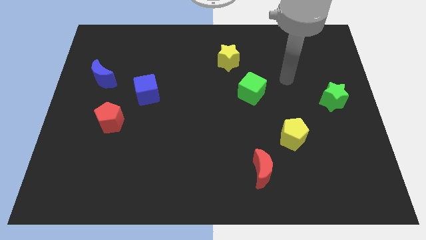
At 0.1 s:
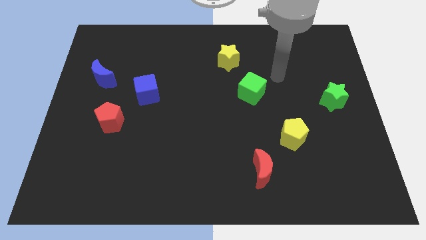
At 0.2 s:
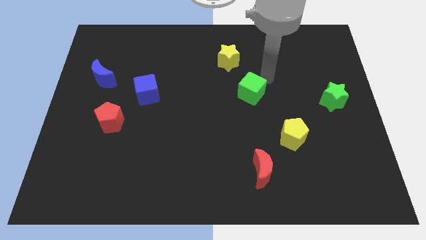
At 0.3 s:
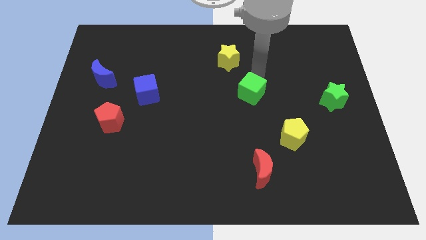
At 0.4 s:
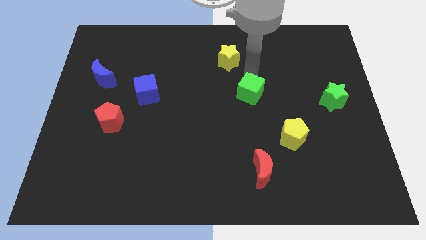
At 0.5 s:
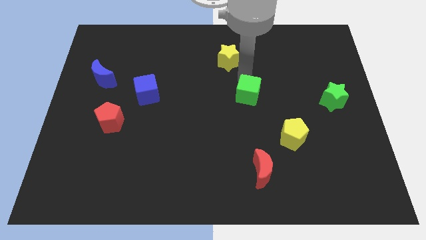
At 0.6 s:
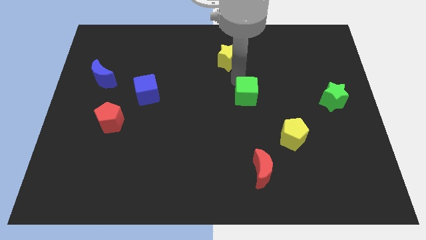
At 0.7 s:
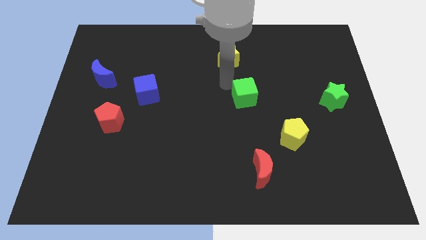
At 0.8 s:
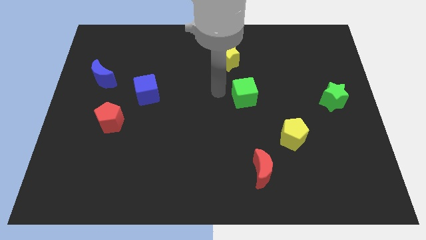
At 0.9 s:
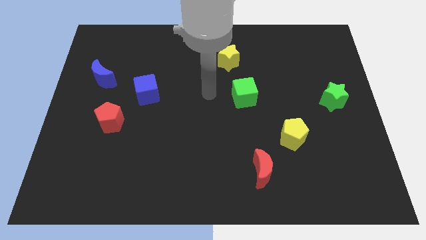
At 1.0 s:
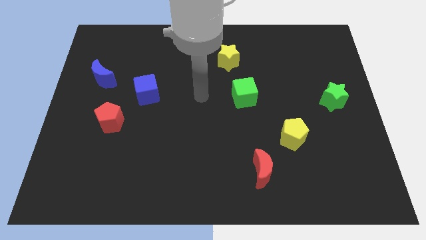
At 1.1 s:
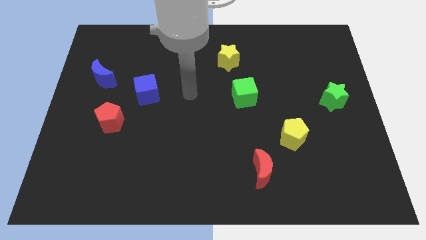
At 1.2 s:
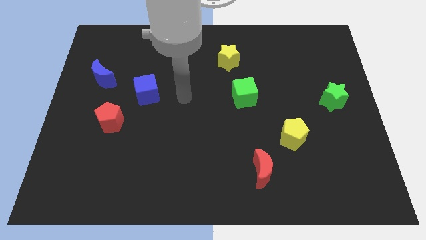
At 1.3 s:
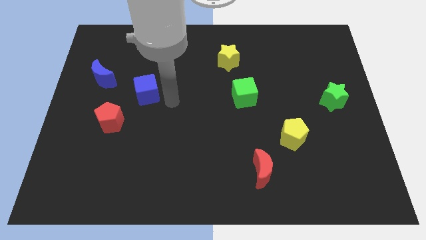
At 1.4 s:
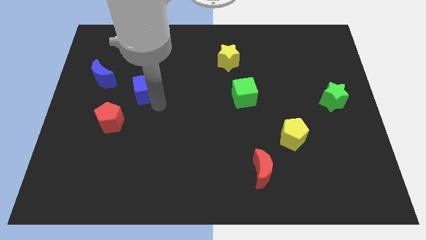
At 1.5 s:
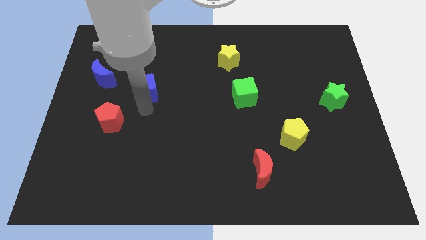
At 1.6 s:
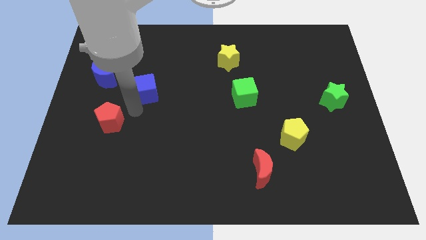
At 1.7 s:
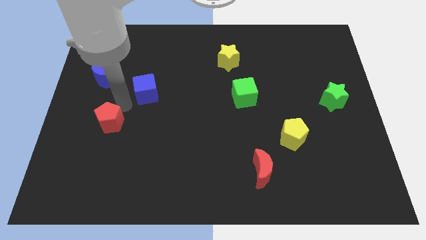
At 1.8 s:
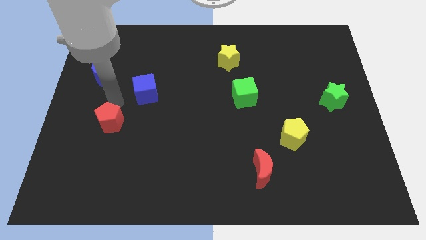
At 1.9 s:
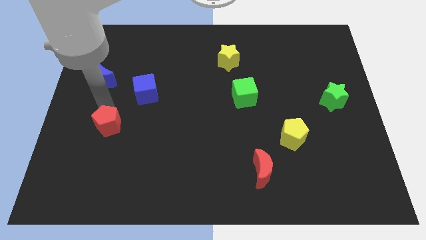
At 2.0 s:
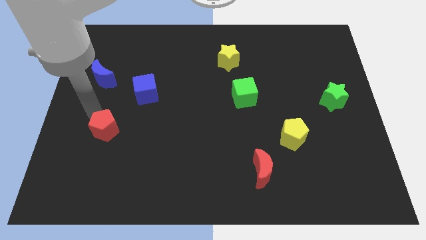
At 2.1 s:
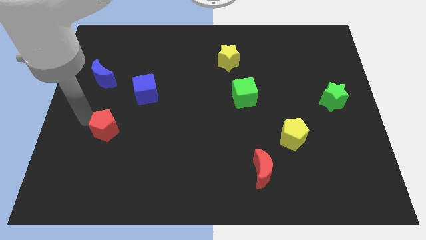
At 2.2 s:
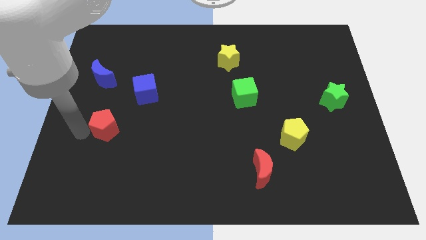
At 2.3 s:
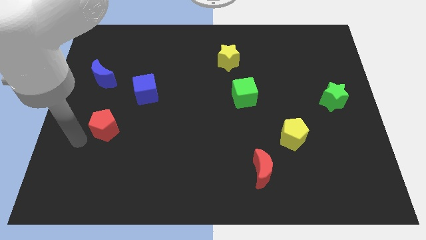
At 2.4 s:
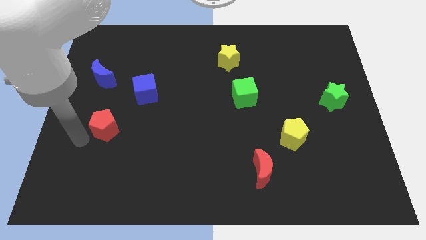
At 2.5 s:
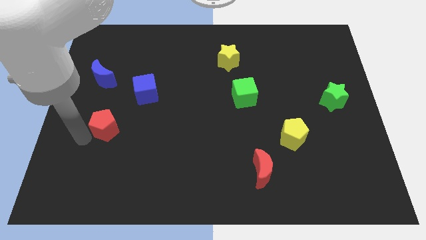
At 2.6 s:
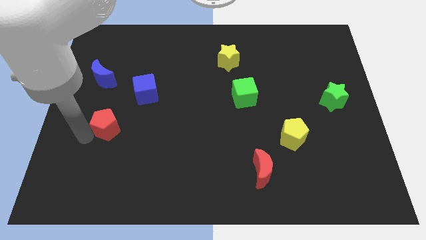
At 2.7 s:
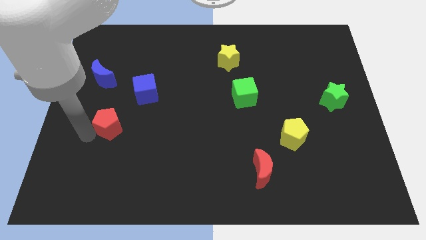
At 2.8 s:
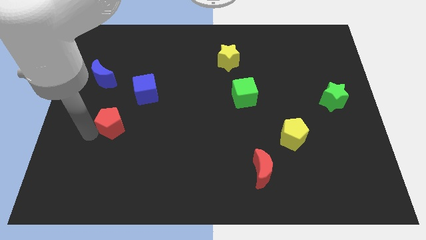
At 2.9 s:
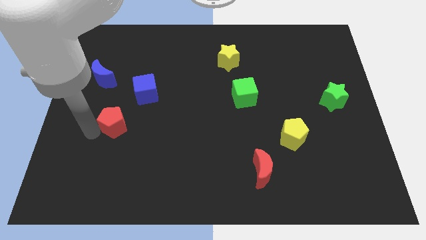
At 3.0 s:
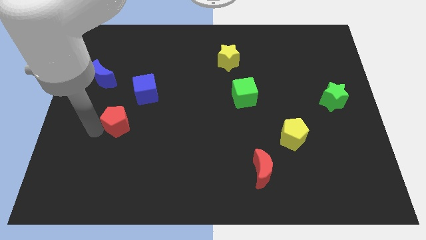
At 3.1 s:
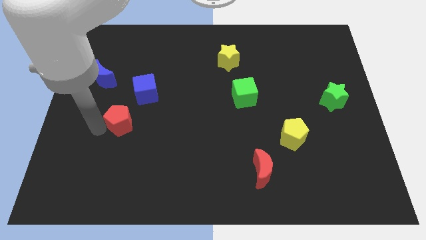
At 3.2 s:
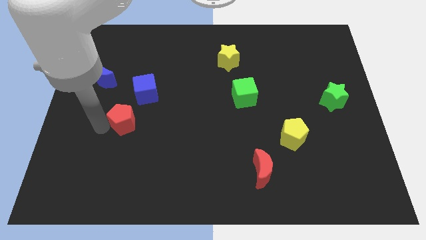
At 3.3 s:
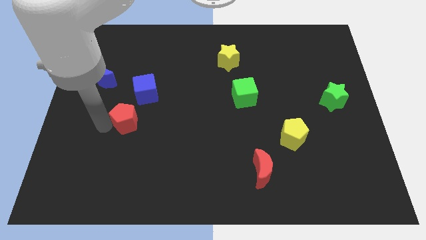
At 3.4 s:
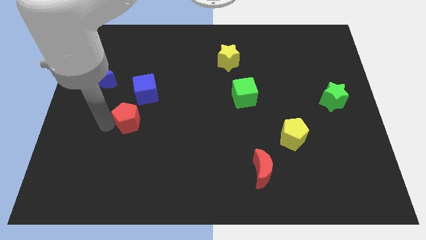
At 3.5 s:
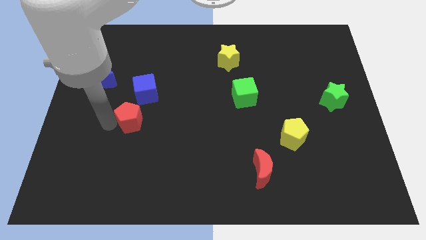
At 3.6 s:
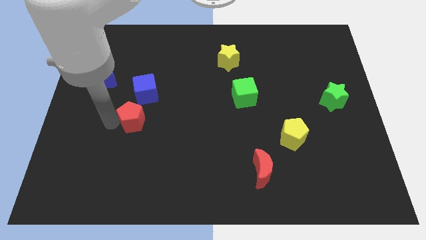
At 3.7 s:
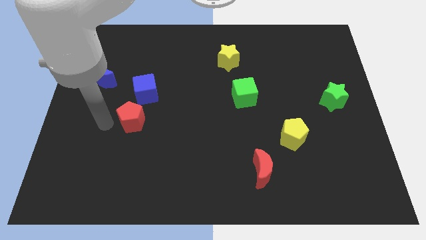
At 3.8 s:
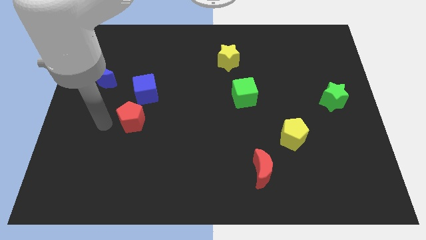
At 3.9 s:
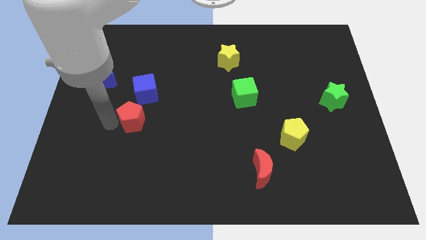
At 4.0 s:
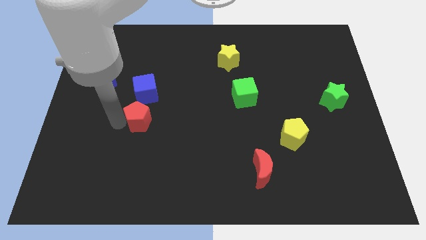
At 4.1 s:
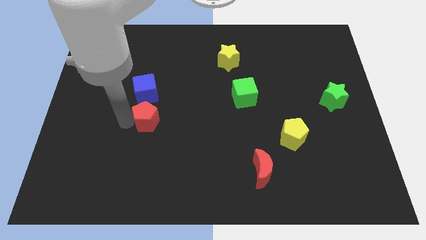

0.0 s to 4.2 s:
slide the red pentagon to the right a little bit

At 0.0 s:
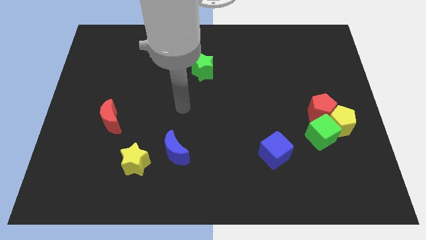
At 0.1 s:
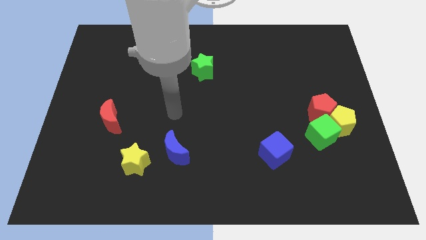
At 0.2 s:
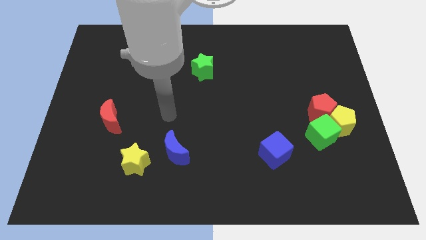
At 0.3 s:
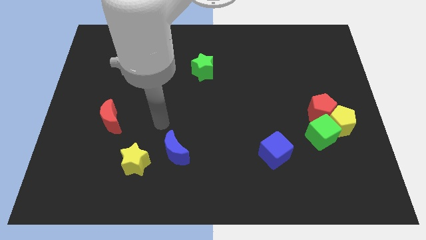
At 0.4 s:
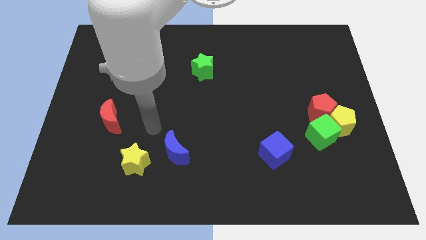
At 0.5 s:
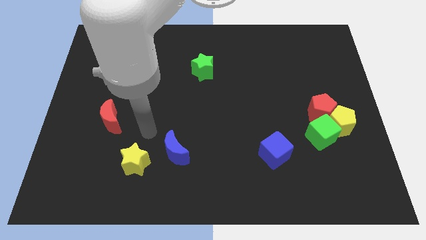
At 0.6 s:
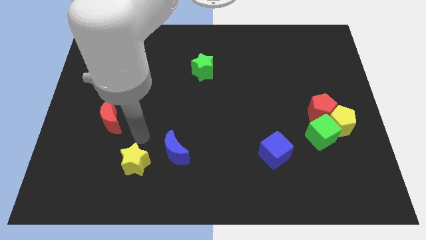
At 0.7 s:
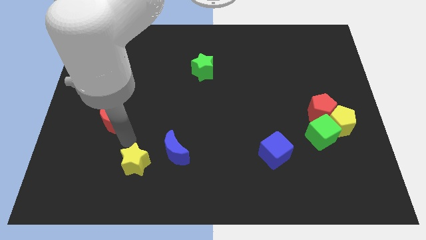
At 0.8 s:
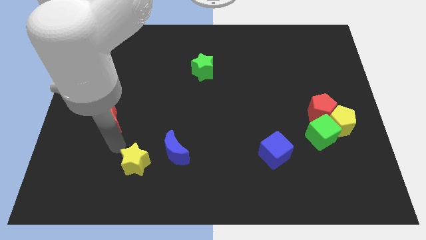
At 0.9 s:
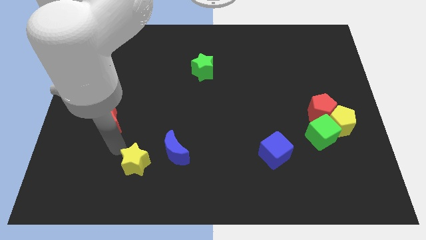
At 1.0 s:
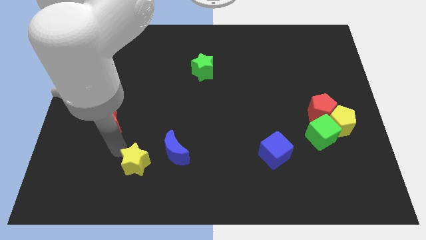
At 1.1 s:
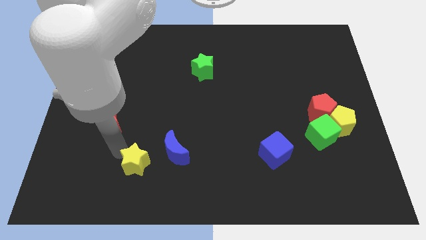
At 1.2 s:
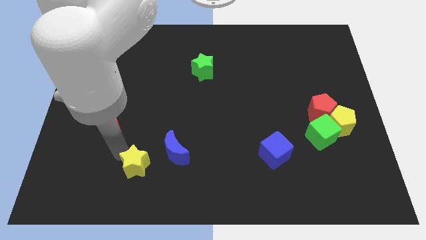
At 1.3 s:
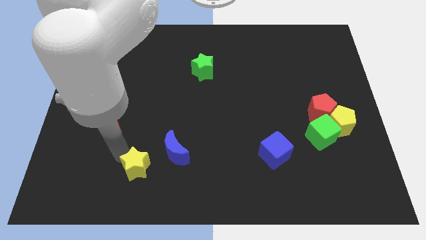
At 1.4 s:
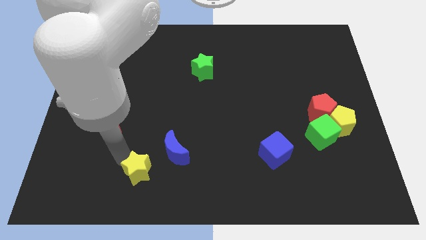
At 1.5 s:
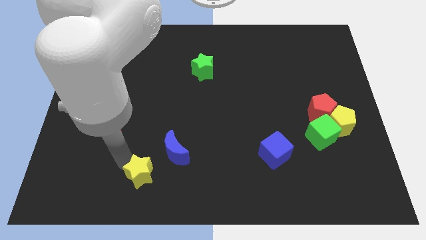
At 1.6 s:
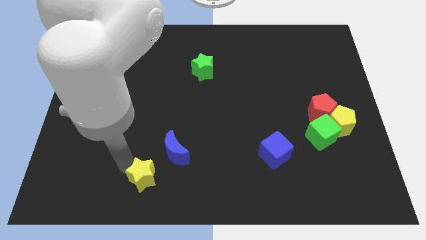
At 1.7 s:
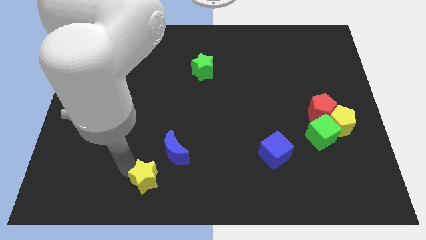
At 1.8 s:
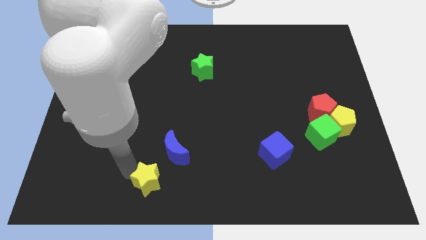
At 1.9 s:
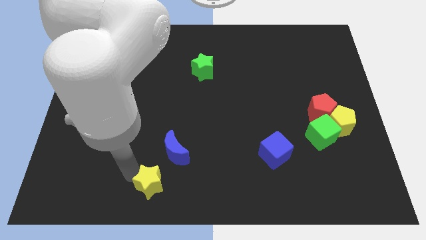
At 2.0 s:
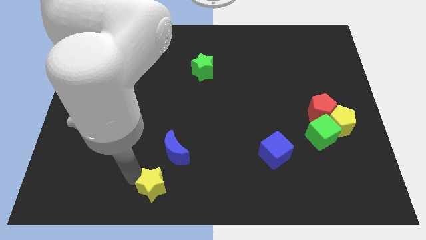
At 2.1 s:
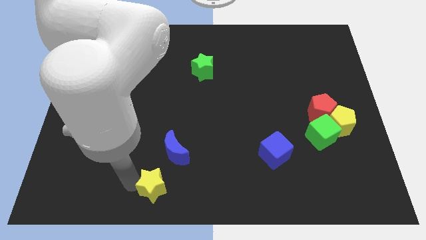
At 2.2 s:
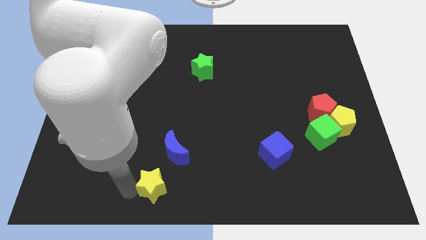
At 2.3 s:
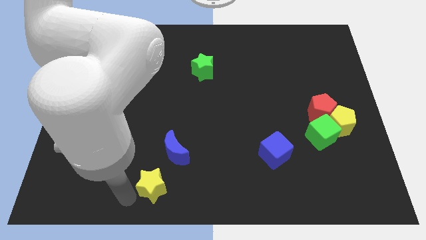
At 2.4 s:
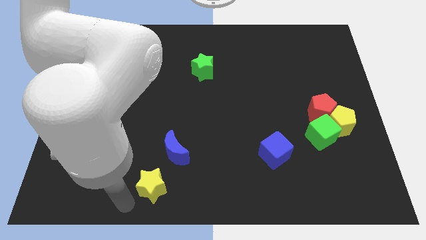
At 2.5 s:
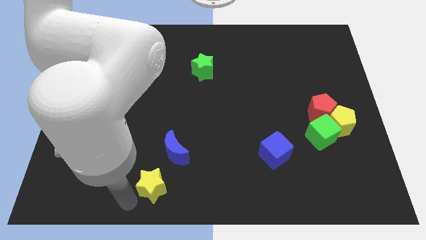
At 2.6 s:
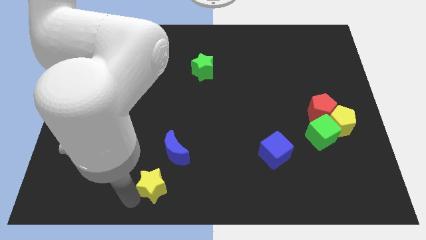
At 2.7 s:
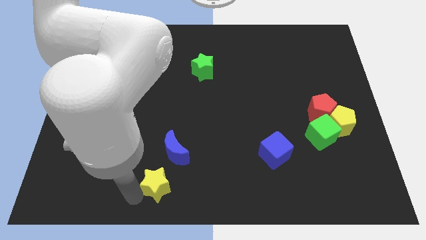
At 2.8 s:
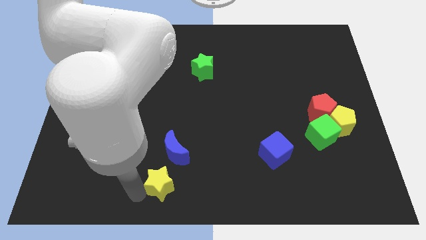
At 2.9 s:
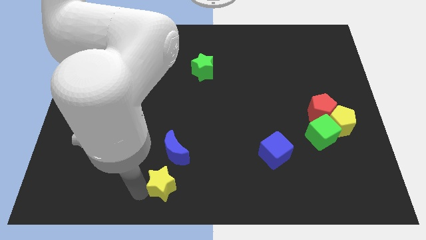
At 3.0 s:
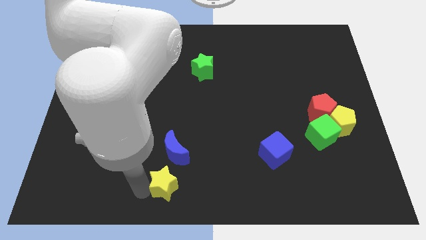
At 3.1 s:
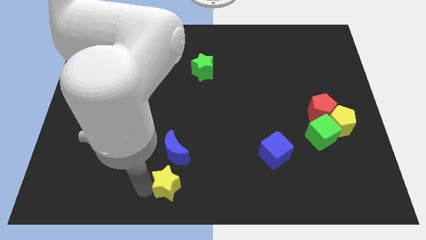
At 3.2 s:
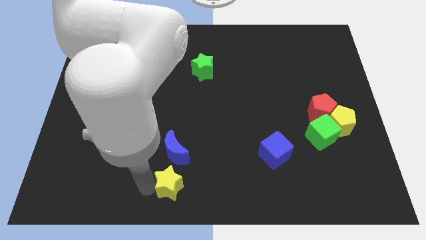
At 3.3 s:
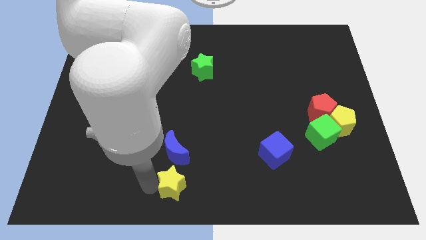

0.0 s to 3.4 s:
slide the yellow star right somewhat

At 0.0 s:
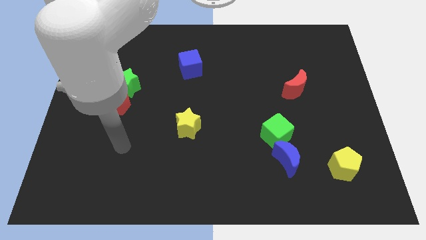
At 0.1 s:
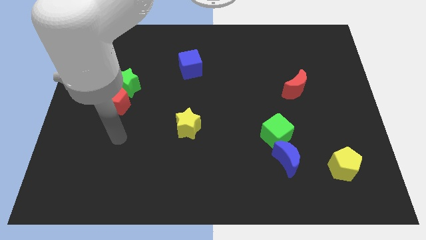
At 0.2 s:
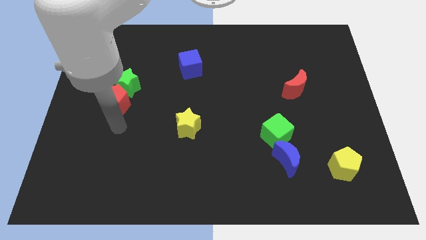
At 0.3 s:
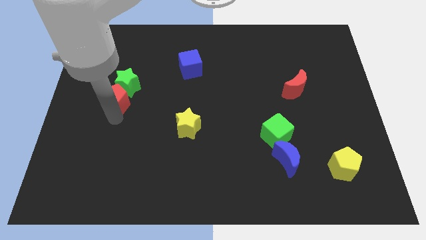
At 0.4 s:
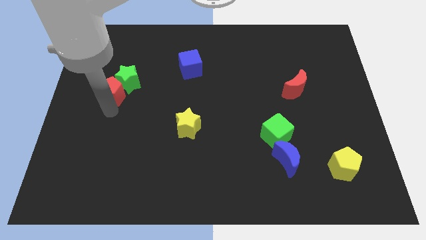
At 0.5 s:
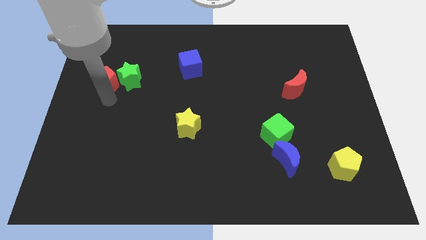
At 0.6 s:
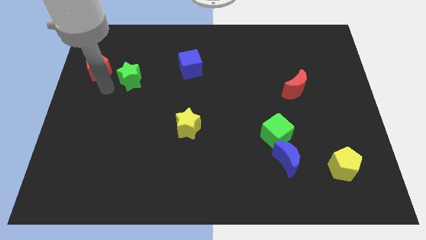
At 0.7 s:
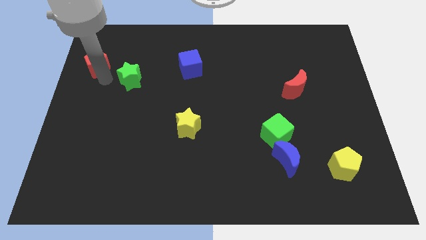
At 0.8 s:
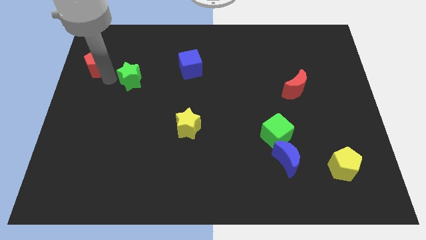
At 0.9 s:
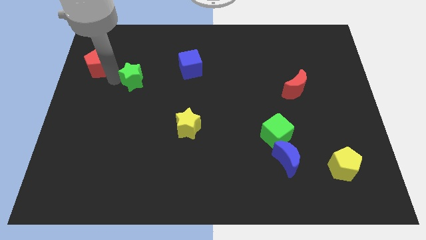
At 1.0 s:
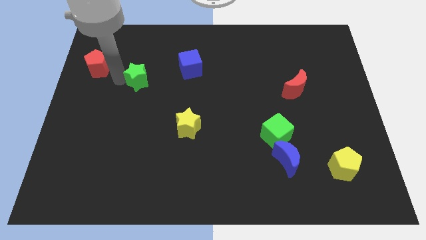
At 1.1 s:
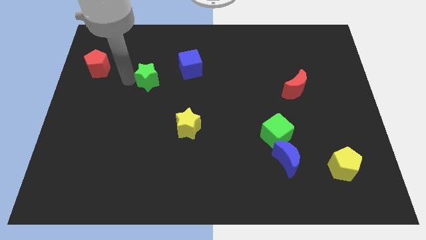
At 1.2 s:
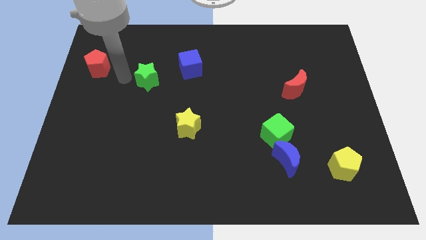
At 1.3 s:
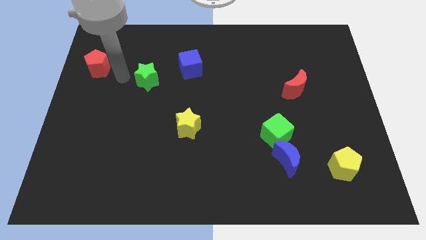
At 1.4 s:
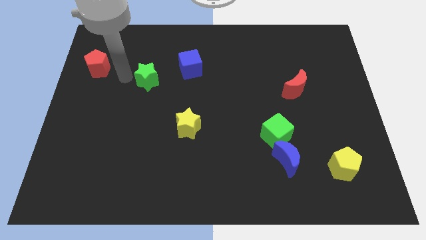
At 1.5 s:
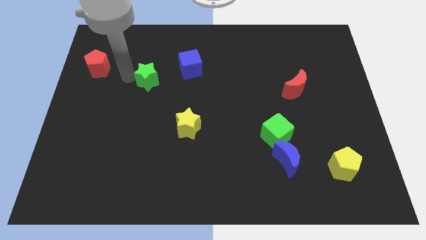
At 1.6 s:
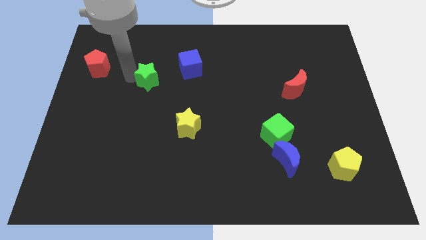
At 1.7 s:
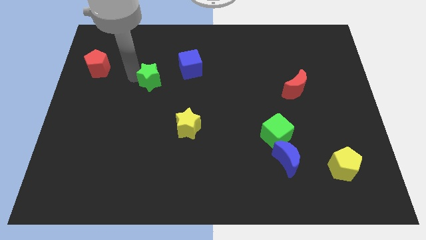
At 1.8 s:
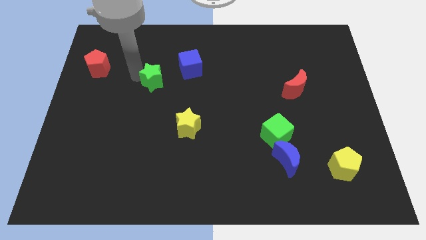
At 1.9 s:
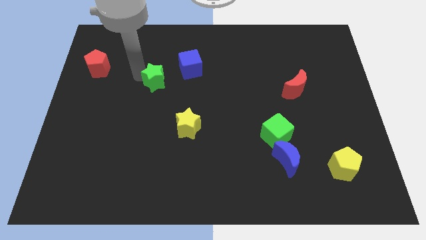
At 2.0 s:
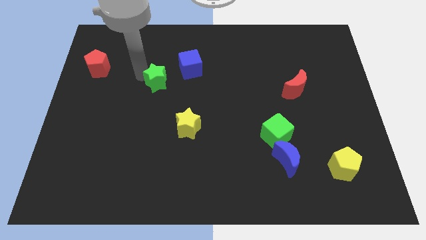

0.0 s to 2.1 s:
move the green star a bit to the right
